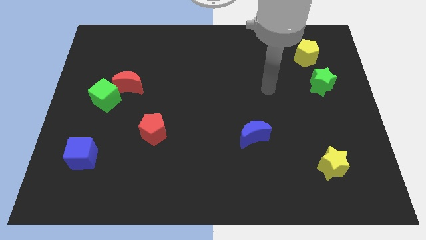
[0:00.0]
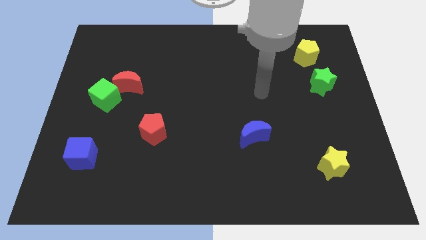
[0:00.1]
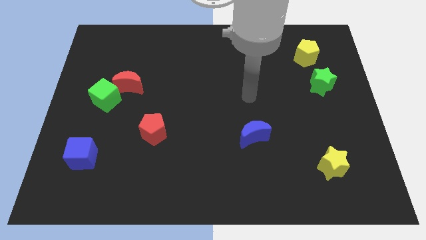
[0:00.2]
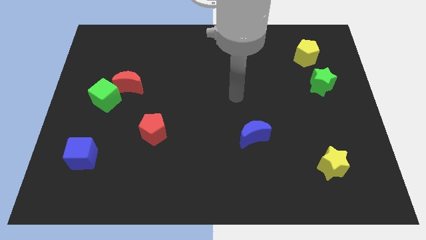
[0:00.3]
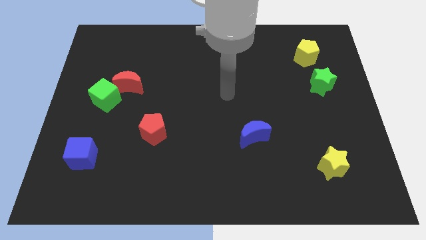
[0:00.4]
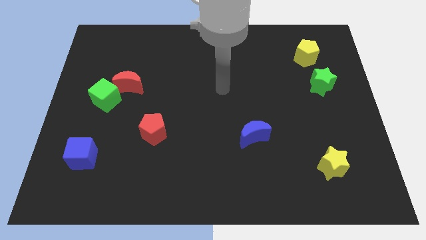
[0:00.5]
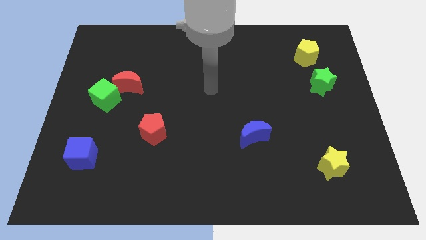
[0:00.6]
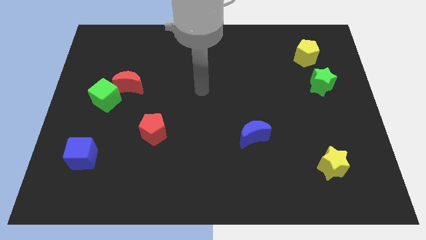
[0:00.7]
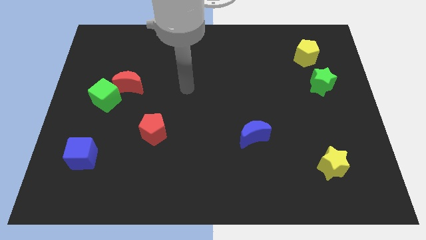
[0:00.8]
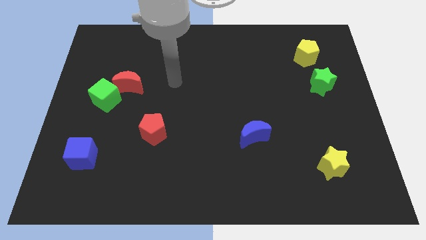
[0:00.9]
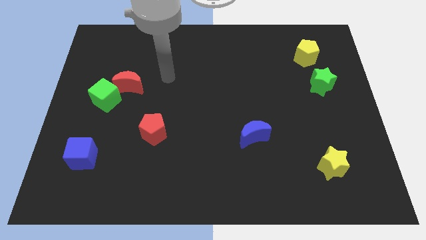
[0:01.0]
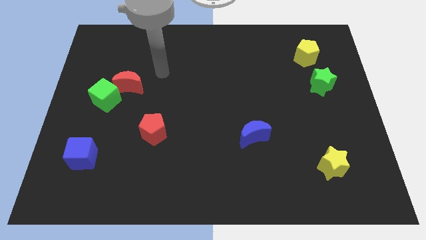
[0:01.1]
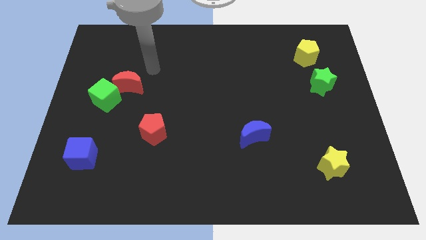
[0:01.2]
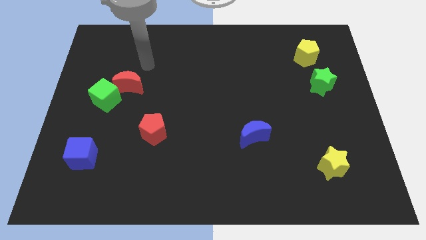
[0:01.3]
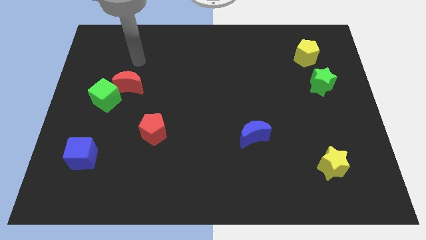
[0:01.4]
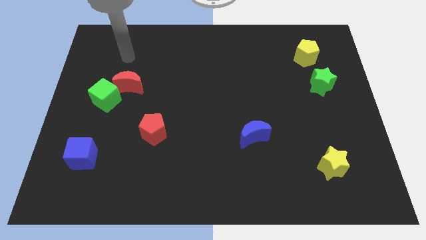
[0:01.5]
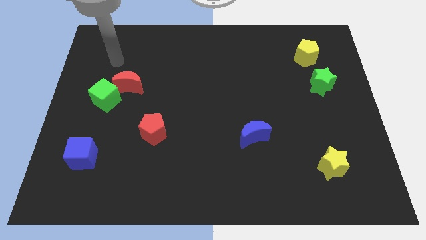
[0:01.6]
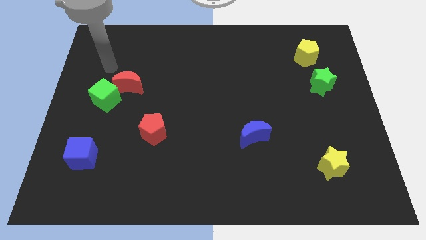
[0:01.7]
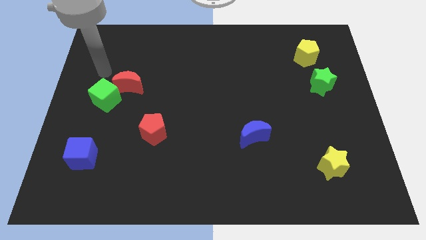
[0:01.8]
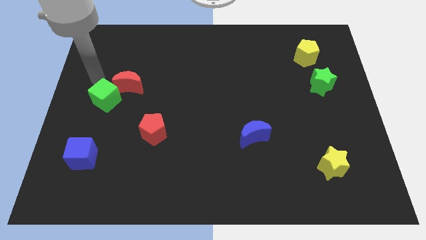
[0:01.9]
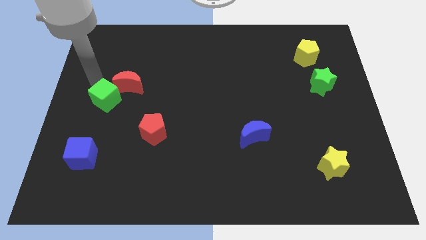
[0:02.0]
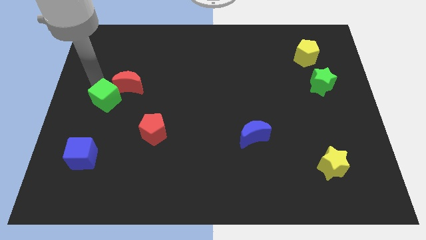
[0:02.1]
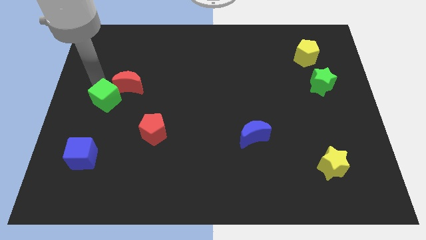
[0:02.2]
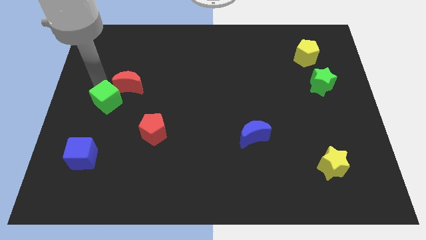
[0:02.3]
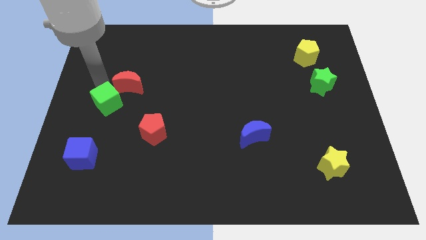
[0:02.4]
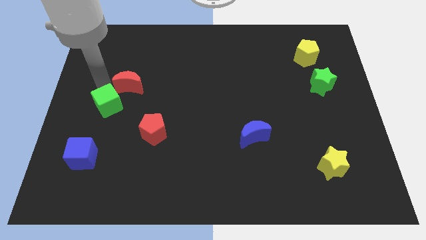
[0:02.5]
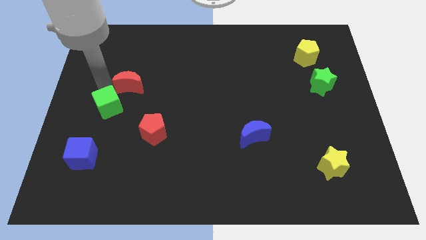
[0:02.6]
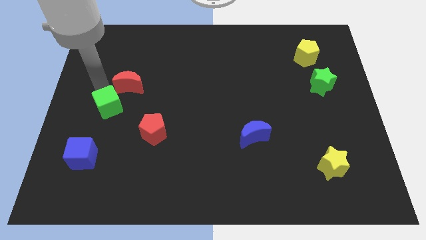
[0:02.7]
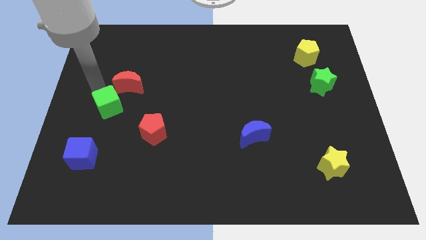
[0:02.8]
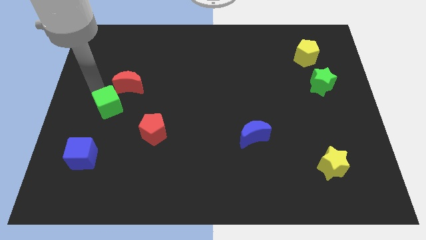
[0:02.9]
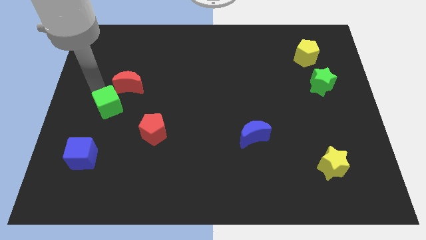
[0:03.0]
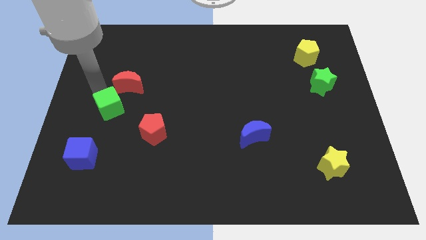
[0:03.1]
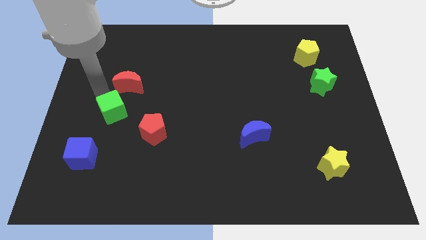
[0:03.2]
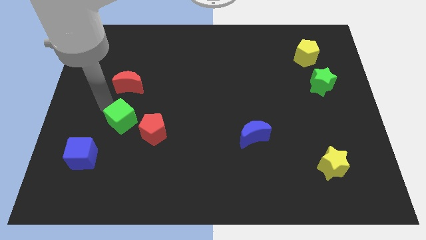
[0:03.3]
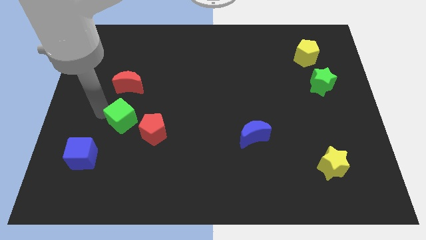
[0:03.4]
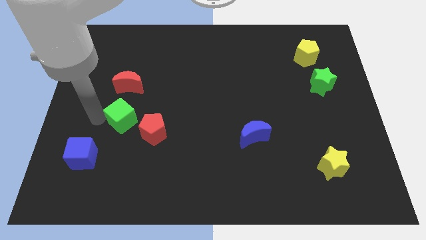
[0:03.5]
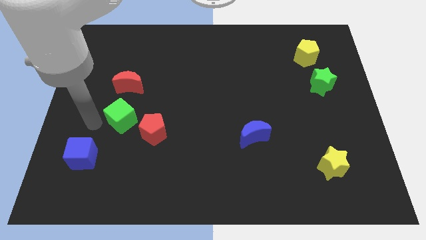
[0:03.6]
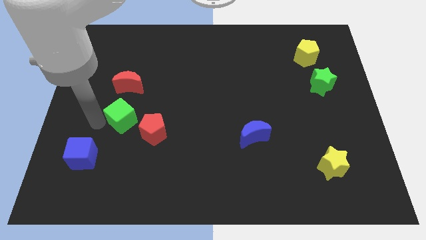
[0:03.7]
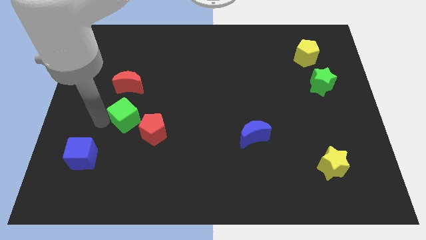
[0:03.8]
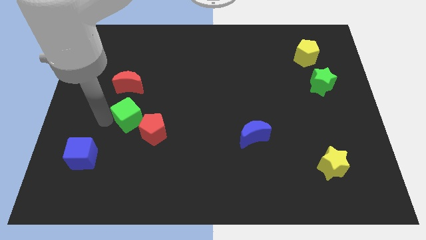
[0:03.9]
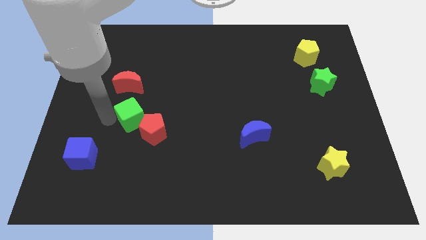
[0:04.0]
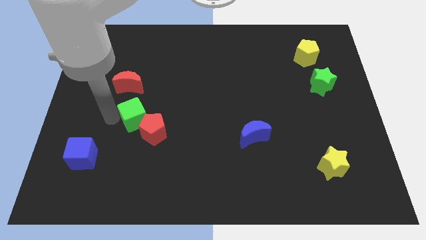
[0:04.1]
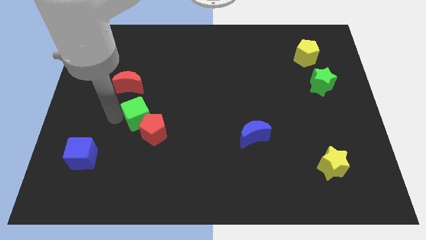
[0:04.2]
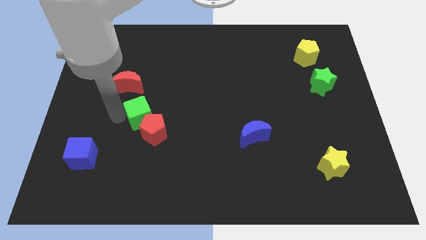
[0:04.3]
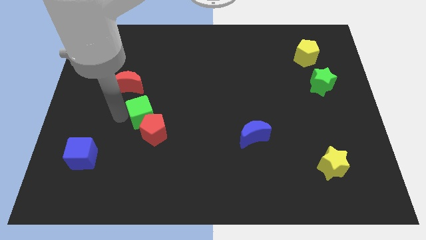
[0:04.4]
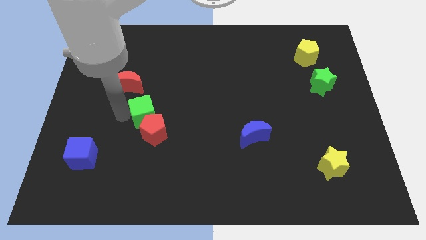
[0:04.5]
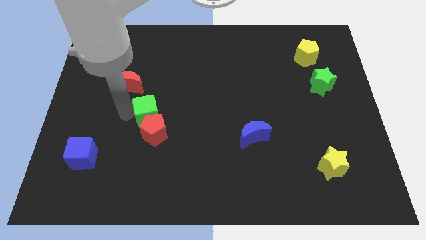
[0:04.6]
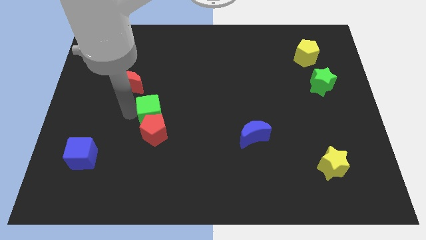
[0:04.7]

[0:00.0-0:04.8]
put the green cube to the top right side of the red pentagon

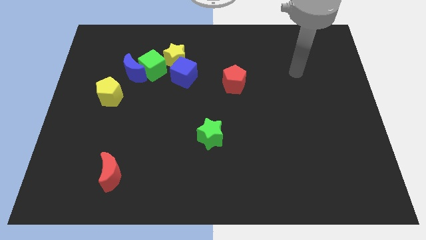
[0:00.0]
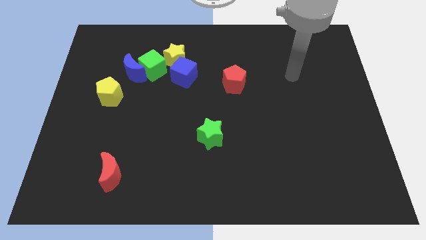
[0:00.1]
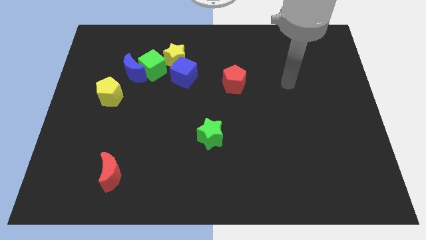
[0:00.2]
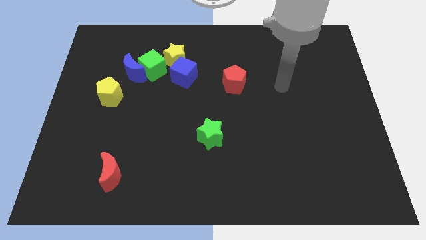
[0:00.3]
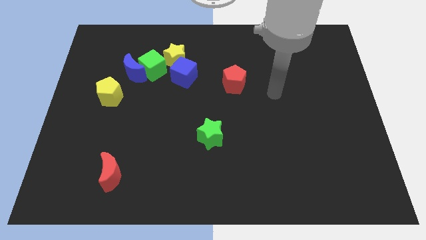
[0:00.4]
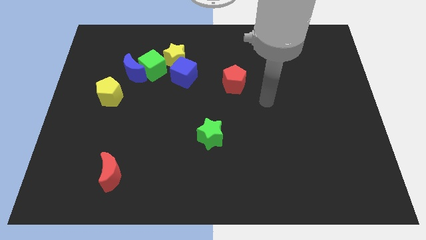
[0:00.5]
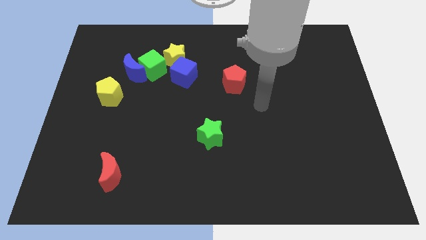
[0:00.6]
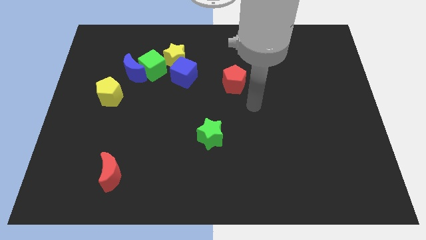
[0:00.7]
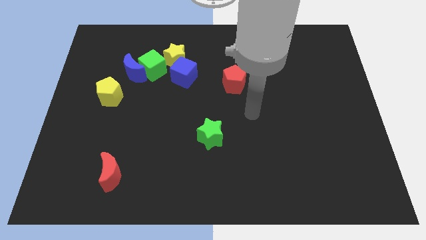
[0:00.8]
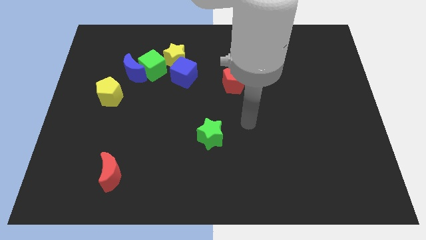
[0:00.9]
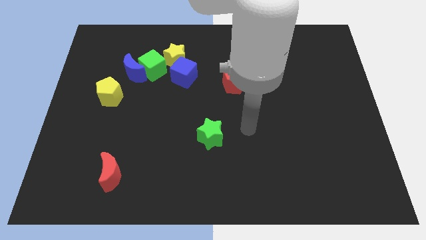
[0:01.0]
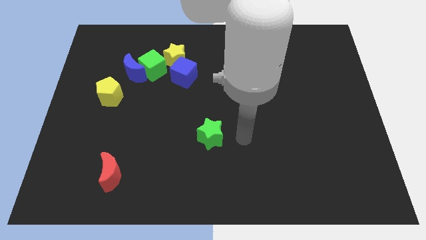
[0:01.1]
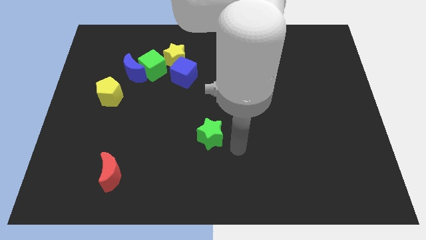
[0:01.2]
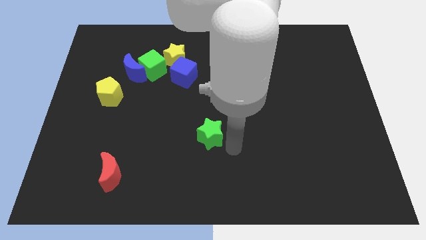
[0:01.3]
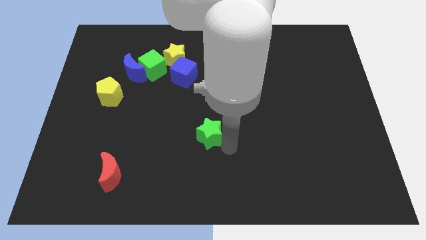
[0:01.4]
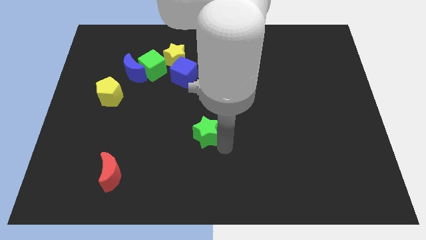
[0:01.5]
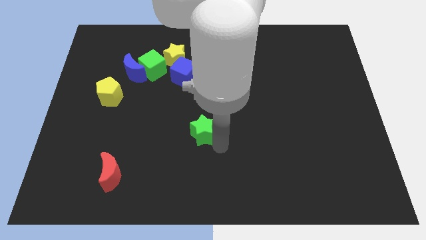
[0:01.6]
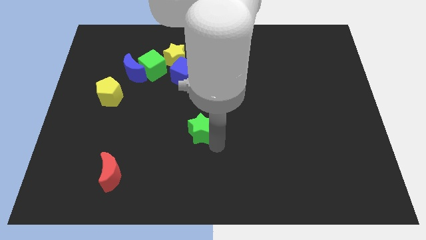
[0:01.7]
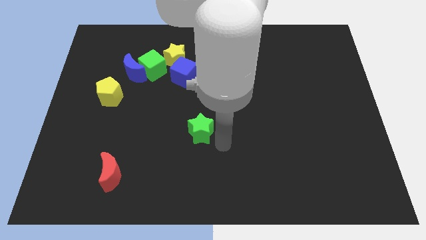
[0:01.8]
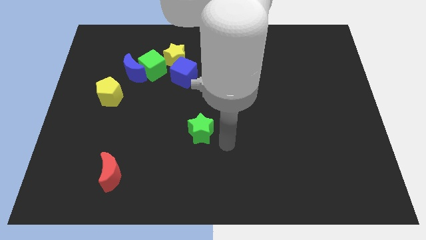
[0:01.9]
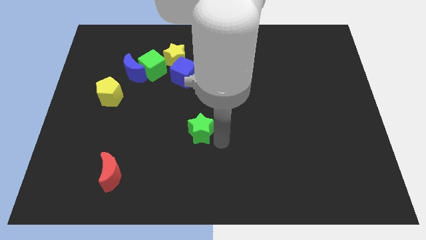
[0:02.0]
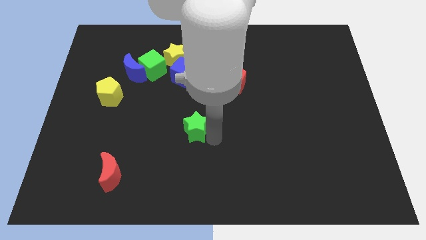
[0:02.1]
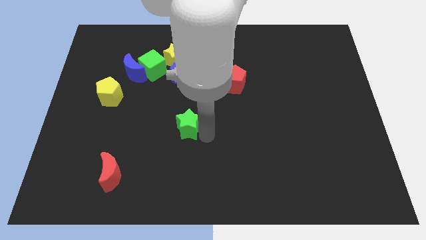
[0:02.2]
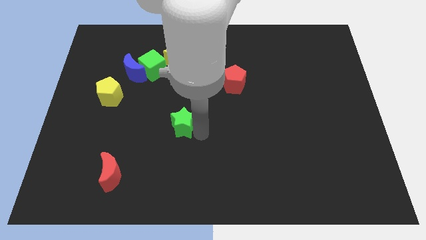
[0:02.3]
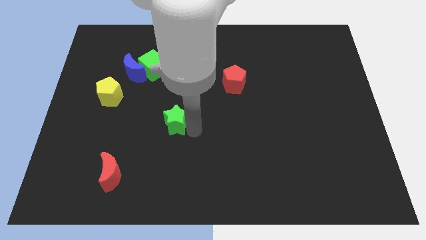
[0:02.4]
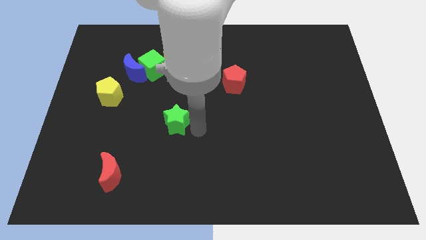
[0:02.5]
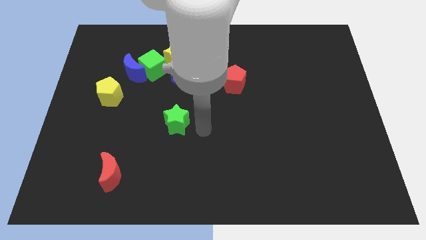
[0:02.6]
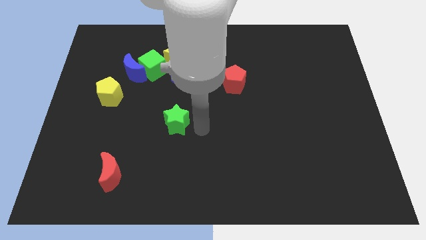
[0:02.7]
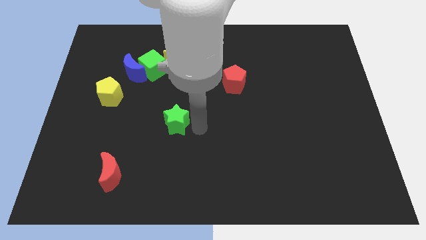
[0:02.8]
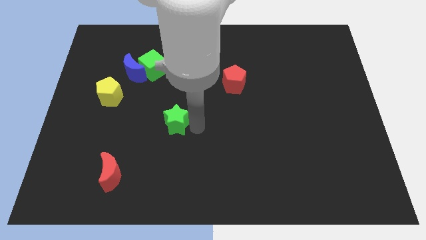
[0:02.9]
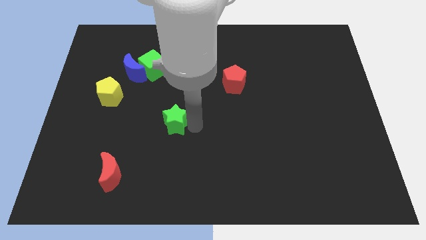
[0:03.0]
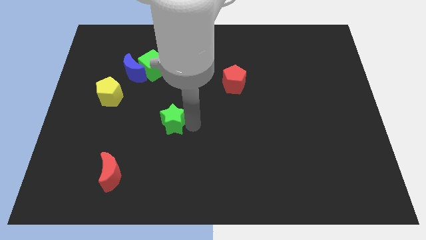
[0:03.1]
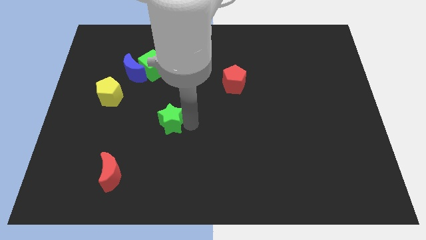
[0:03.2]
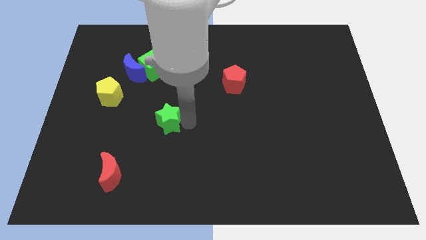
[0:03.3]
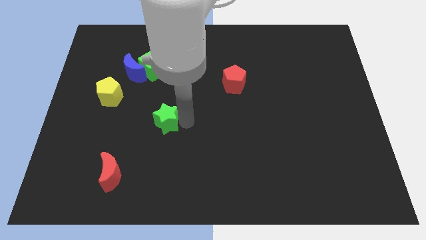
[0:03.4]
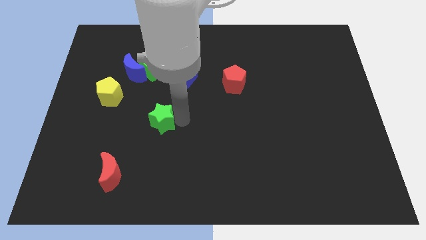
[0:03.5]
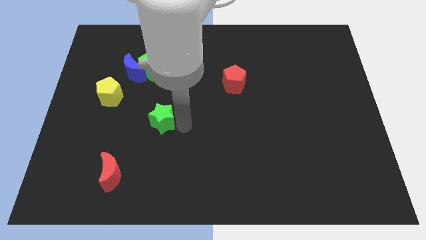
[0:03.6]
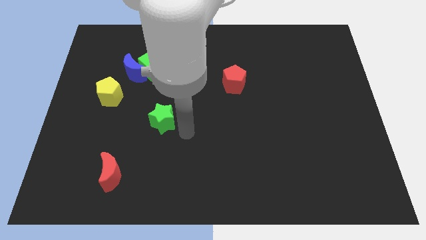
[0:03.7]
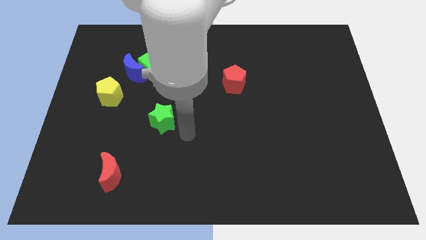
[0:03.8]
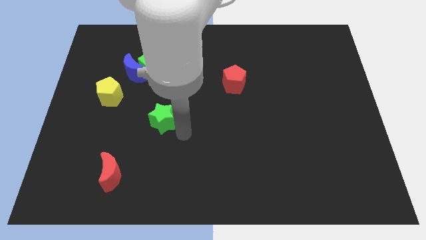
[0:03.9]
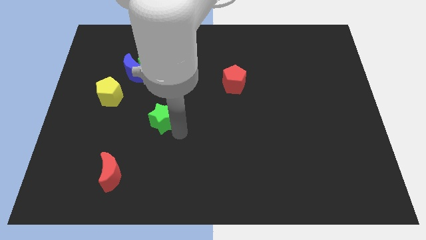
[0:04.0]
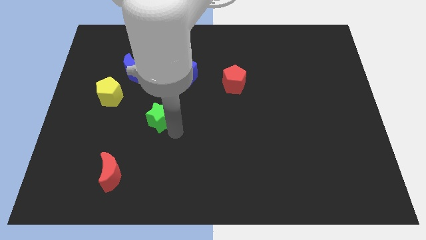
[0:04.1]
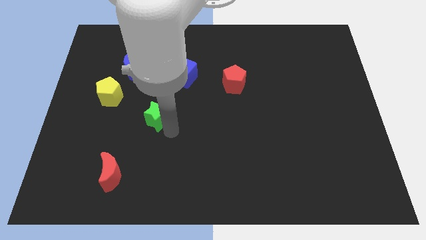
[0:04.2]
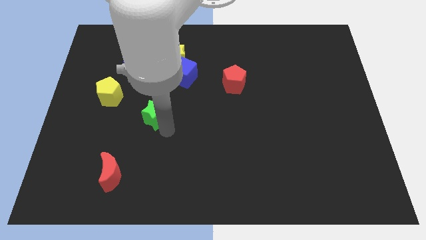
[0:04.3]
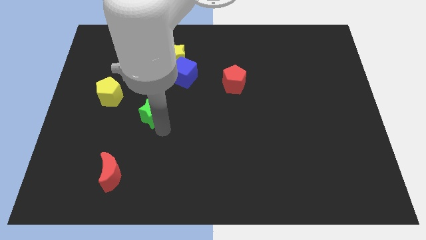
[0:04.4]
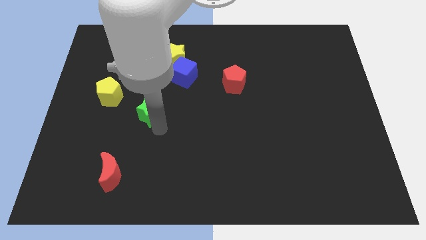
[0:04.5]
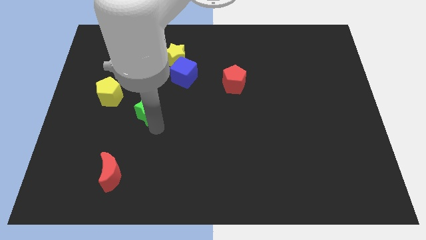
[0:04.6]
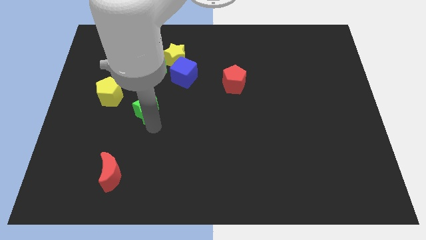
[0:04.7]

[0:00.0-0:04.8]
move the green star to the bottom side of the blue moon
